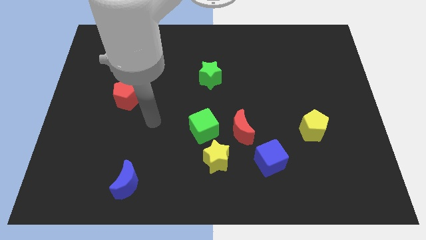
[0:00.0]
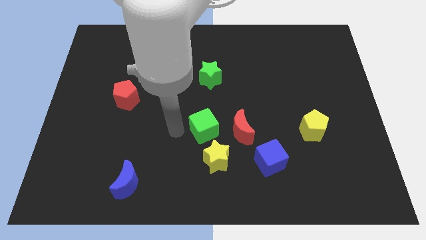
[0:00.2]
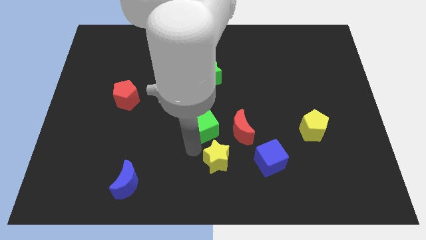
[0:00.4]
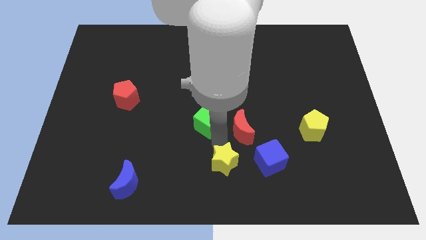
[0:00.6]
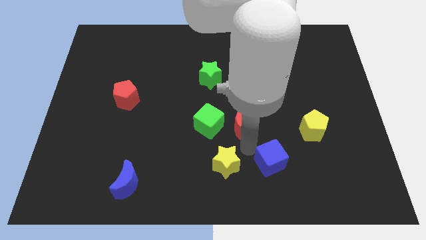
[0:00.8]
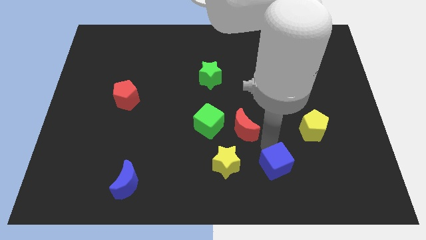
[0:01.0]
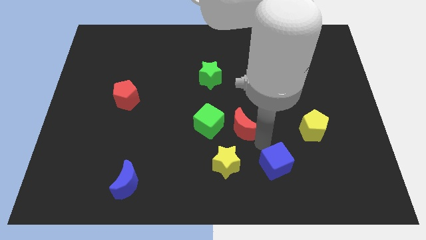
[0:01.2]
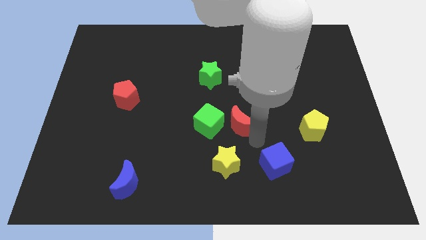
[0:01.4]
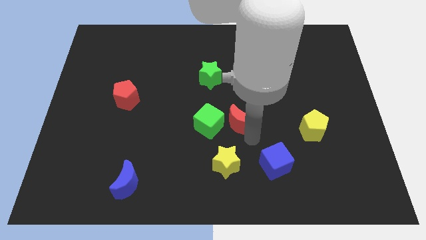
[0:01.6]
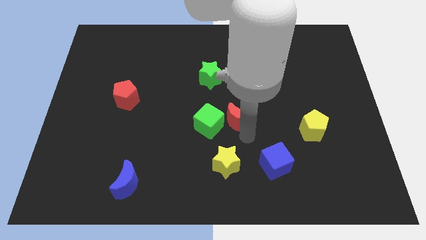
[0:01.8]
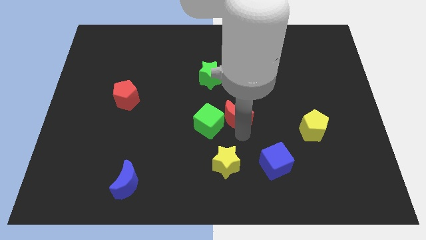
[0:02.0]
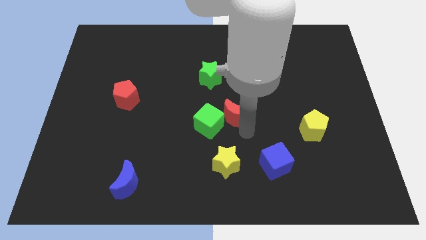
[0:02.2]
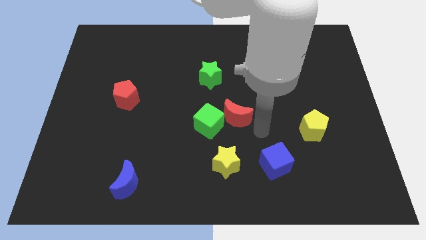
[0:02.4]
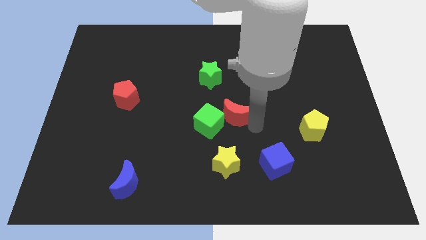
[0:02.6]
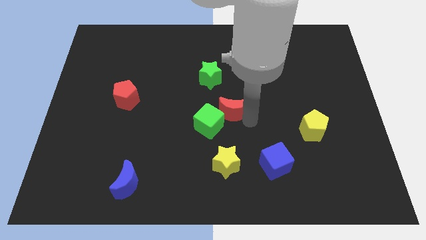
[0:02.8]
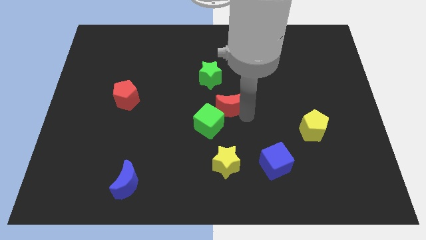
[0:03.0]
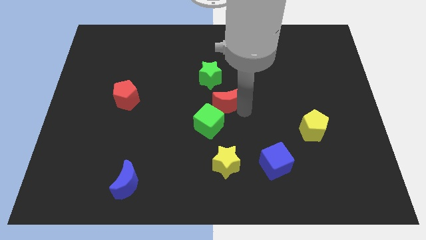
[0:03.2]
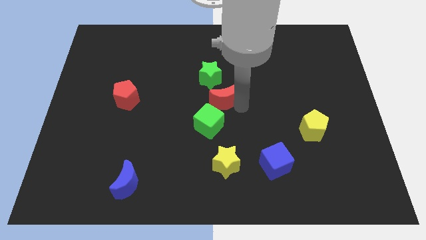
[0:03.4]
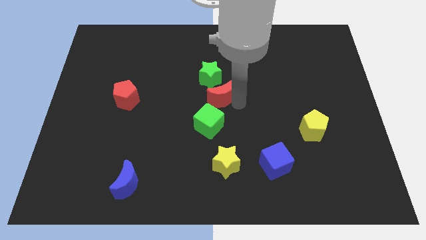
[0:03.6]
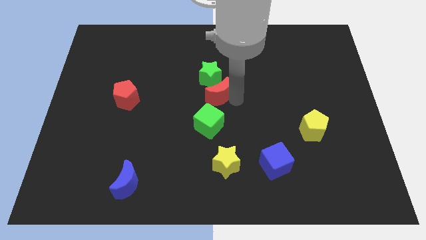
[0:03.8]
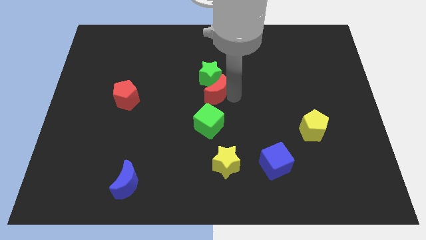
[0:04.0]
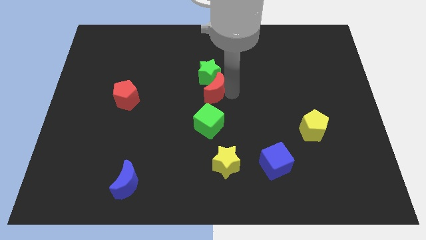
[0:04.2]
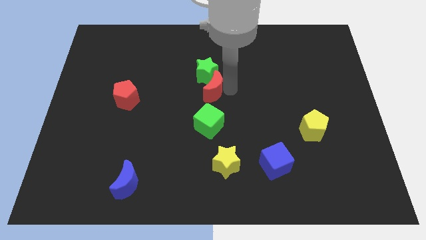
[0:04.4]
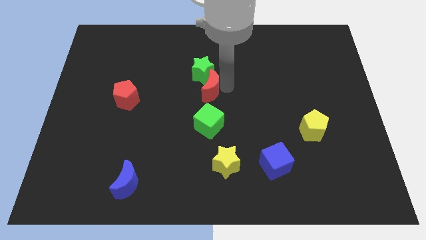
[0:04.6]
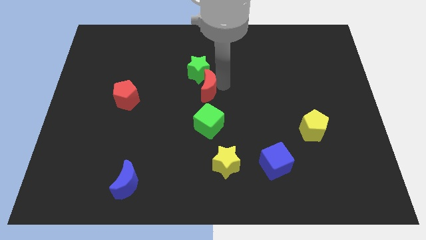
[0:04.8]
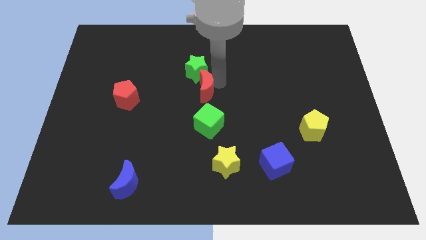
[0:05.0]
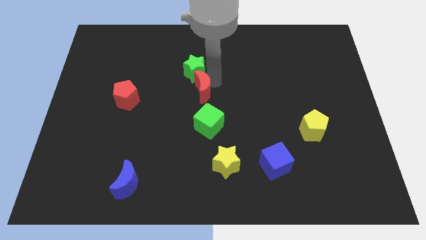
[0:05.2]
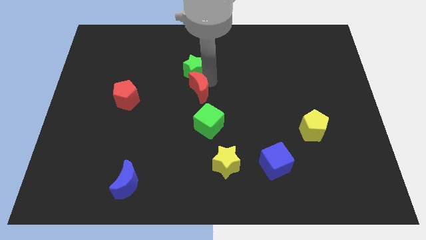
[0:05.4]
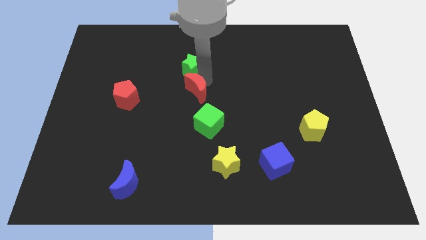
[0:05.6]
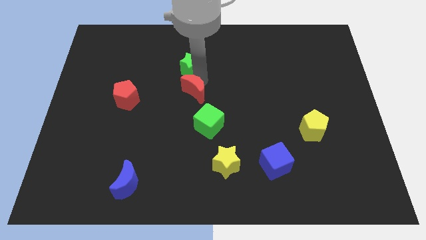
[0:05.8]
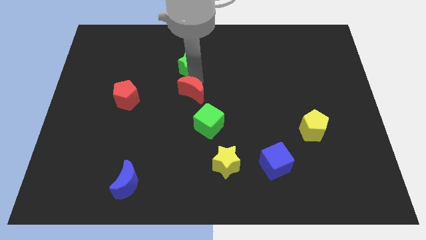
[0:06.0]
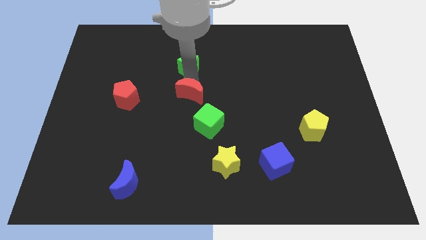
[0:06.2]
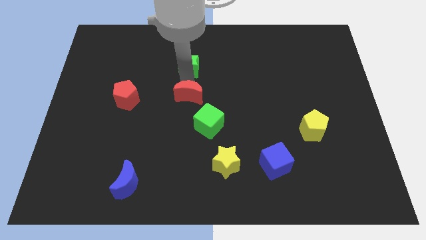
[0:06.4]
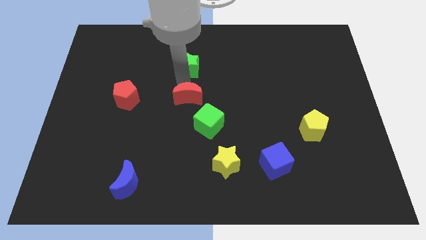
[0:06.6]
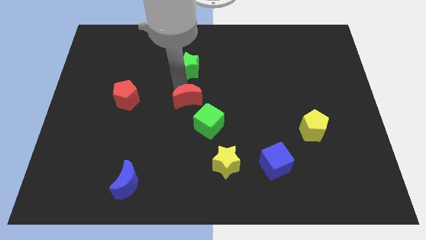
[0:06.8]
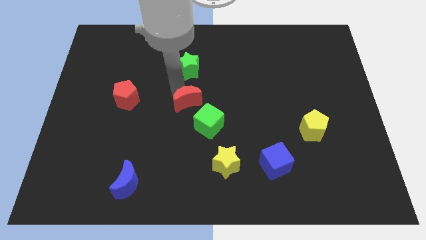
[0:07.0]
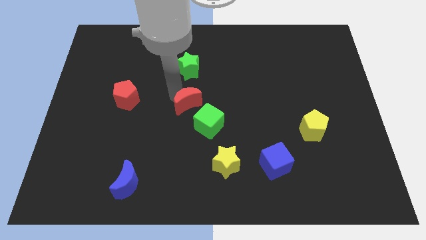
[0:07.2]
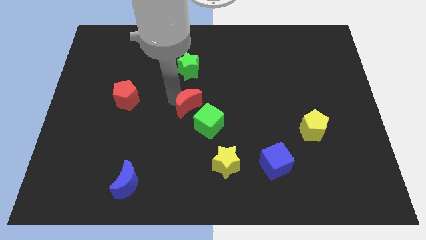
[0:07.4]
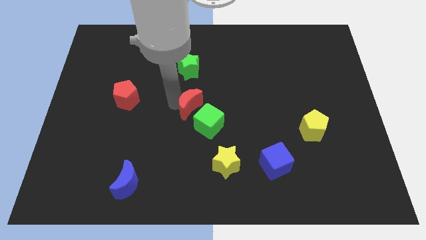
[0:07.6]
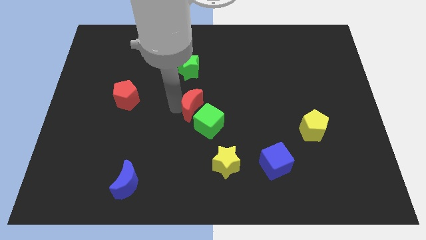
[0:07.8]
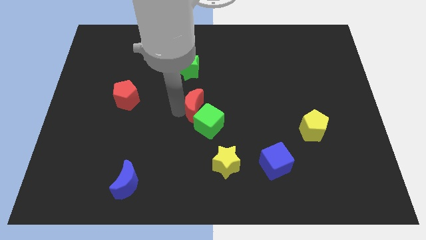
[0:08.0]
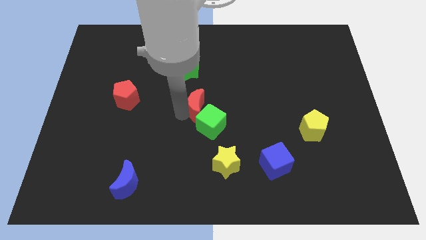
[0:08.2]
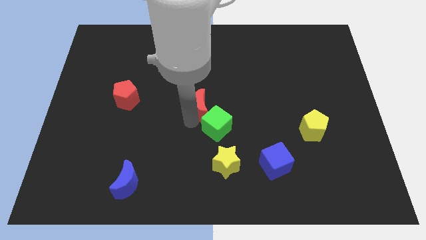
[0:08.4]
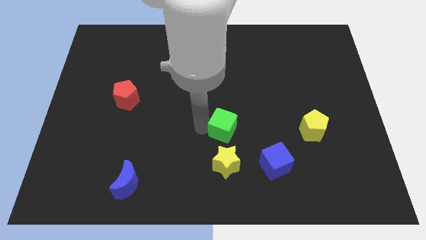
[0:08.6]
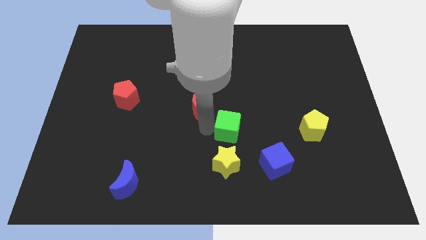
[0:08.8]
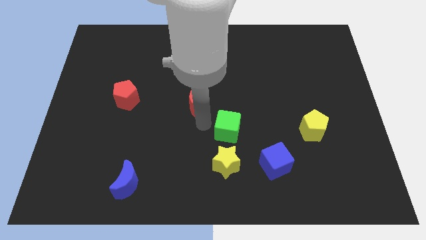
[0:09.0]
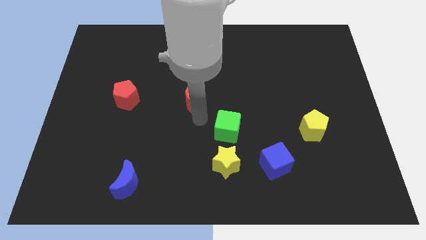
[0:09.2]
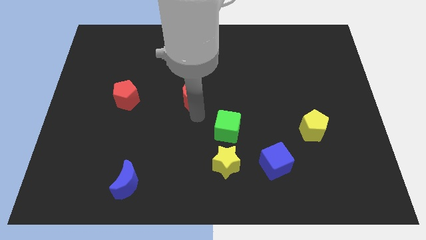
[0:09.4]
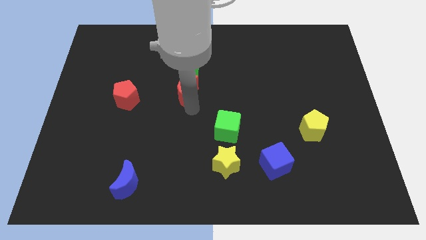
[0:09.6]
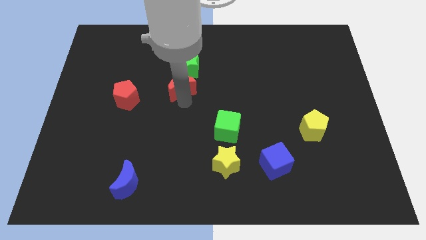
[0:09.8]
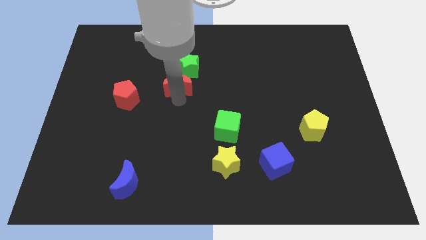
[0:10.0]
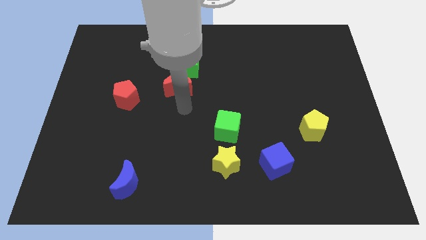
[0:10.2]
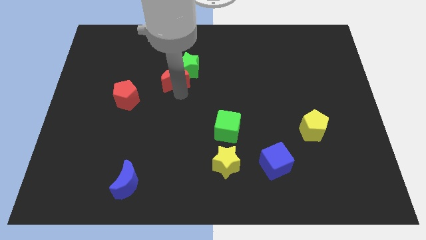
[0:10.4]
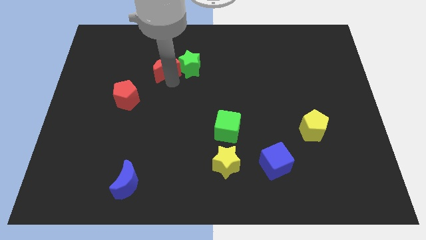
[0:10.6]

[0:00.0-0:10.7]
move the red moon to the top left side of the green star

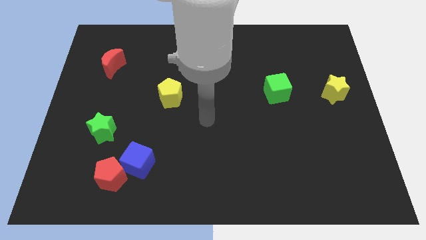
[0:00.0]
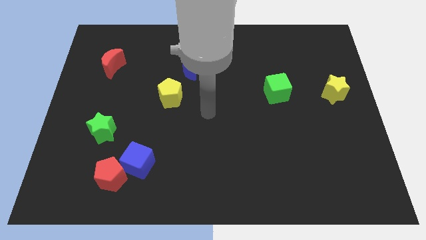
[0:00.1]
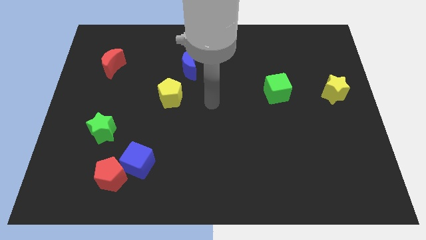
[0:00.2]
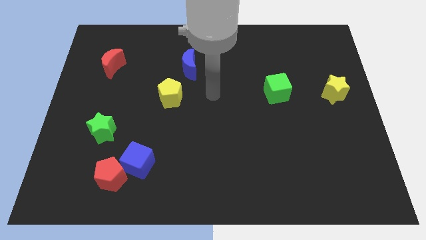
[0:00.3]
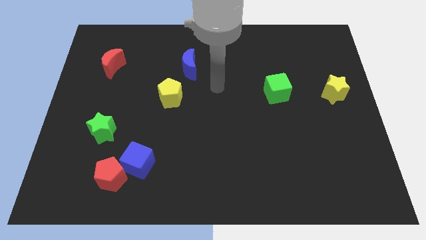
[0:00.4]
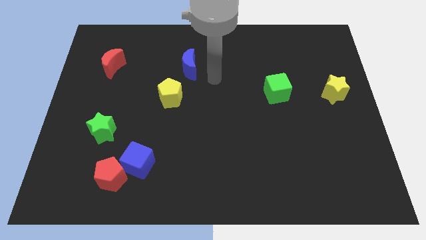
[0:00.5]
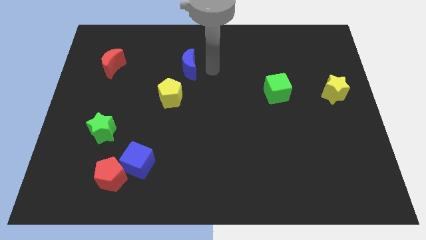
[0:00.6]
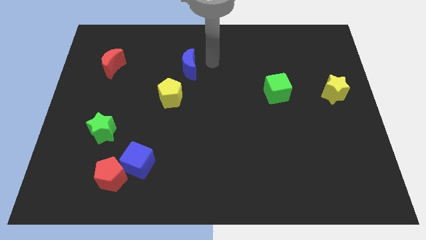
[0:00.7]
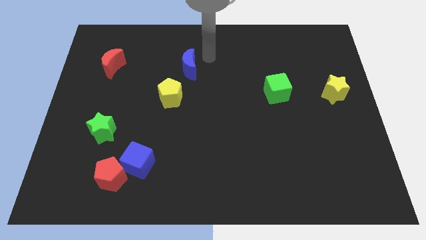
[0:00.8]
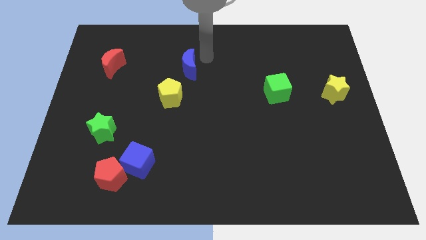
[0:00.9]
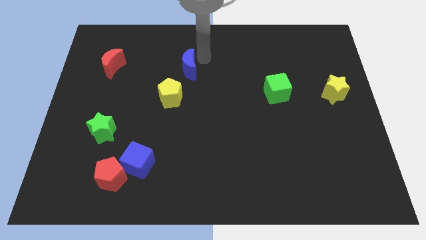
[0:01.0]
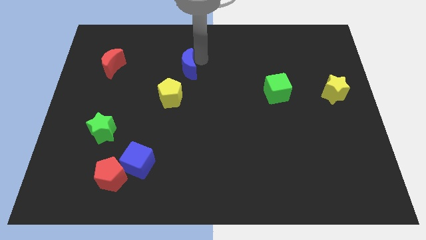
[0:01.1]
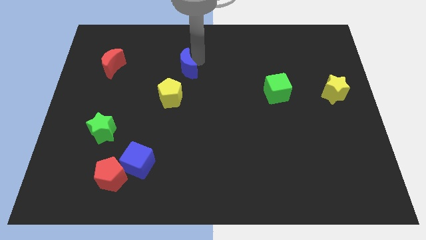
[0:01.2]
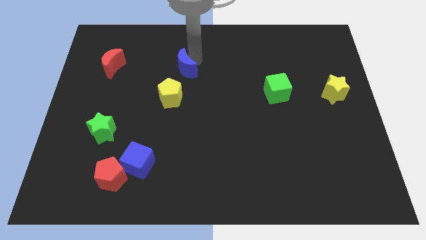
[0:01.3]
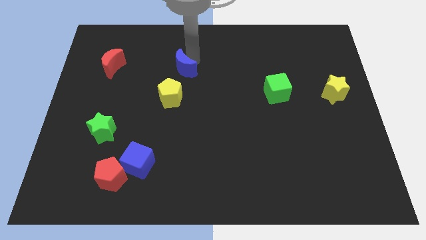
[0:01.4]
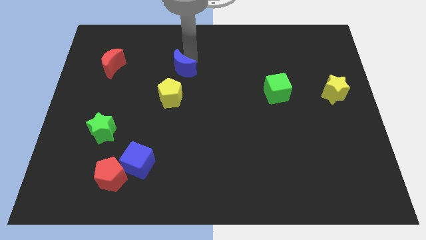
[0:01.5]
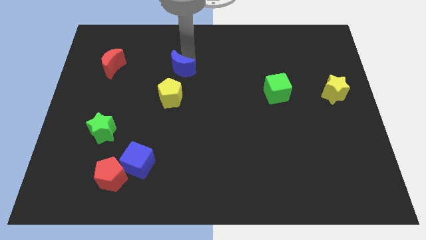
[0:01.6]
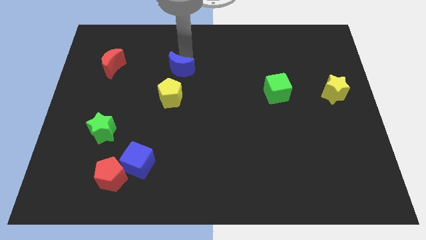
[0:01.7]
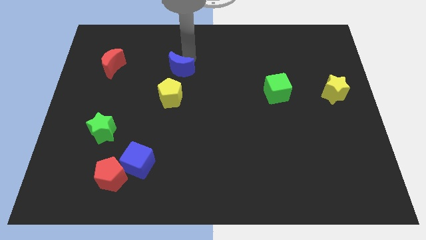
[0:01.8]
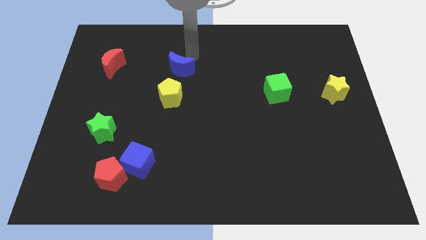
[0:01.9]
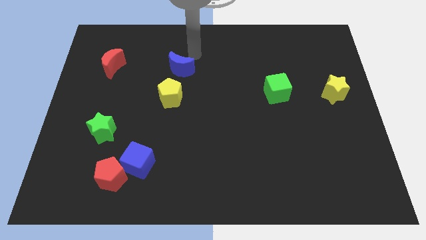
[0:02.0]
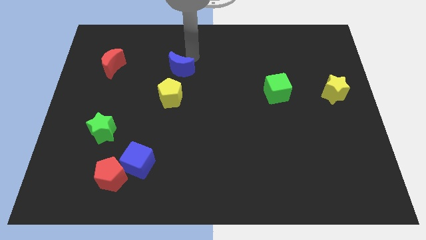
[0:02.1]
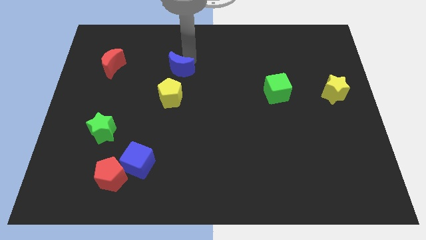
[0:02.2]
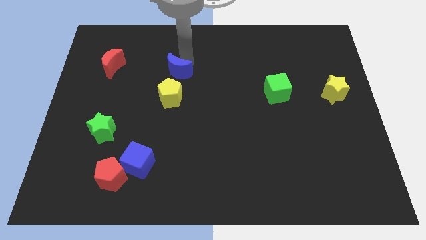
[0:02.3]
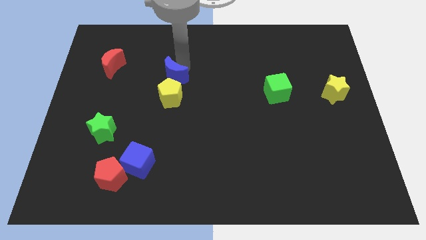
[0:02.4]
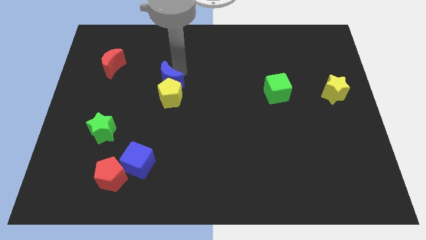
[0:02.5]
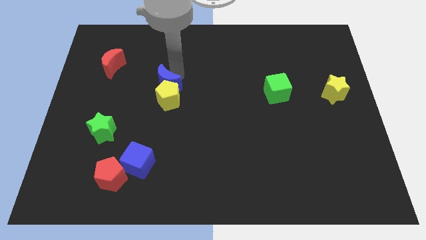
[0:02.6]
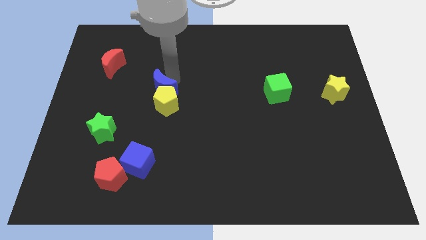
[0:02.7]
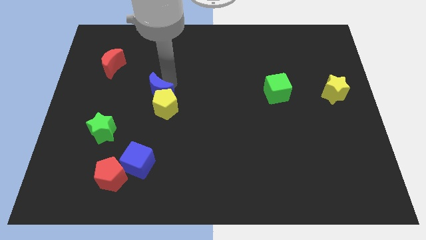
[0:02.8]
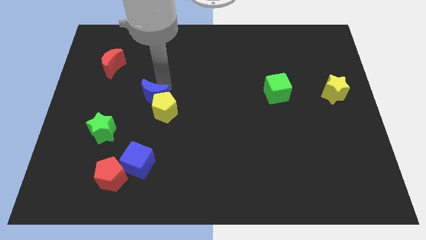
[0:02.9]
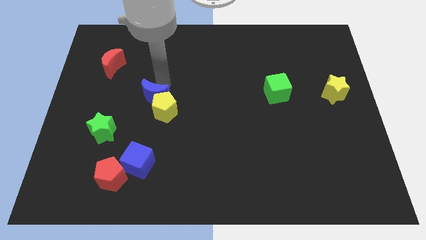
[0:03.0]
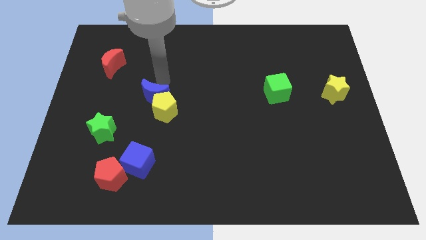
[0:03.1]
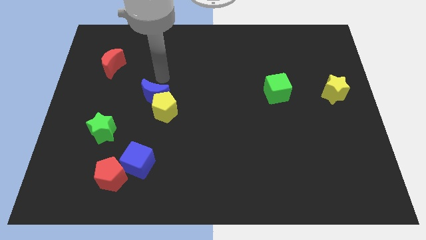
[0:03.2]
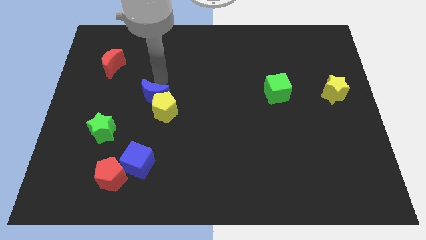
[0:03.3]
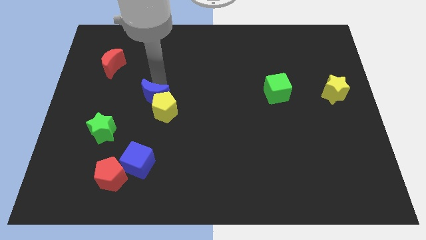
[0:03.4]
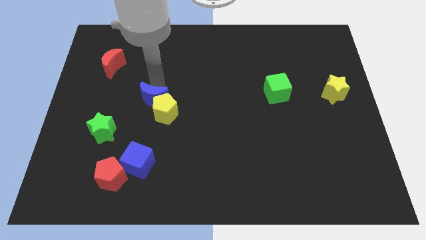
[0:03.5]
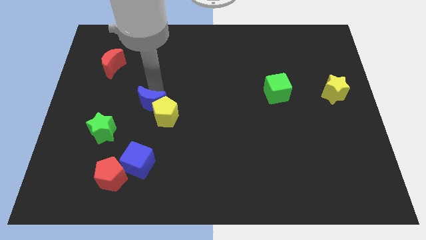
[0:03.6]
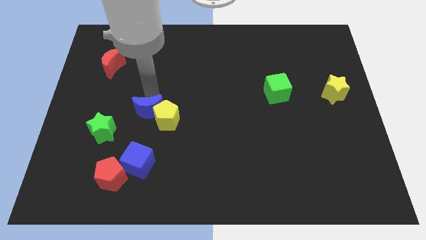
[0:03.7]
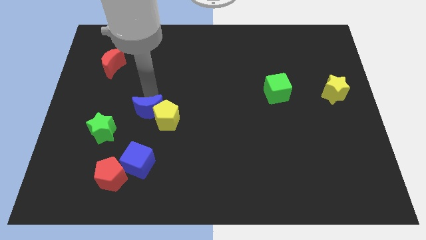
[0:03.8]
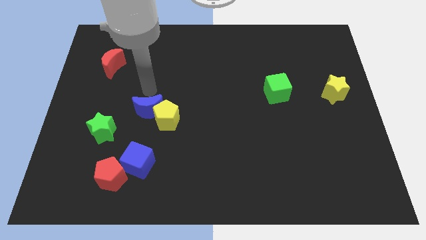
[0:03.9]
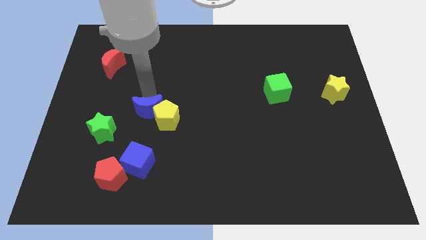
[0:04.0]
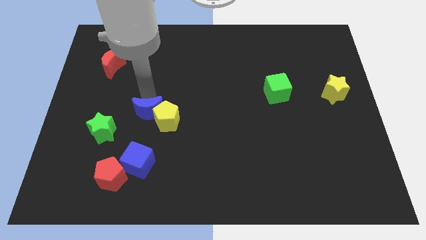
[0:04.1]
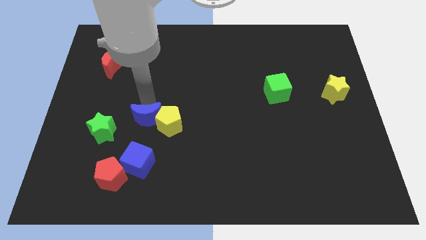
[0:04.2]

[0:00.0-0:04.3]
slide the blue moon to the right side of the green star
